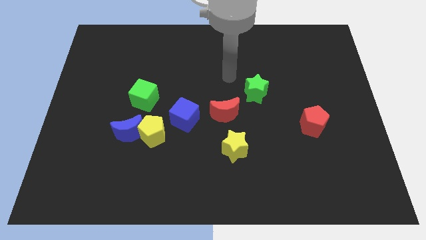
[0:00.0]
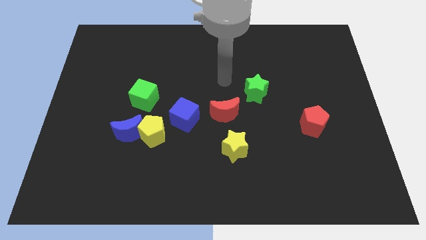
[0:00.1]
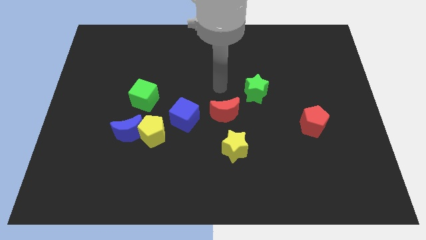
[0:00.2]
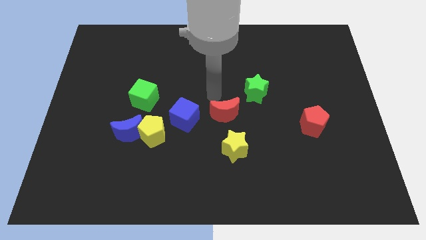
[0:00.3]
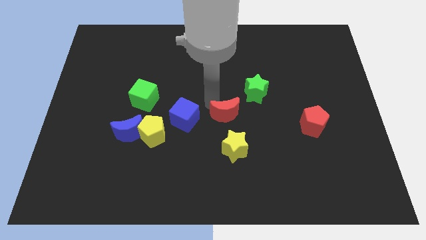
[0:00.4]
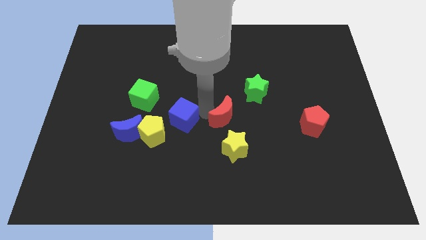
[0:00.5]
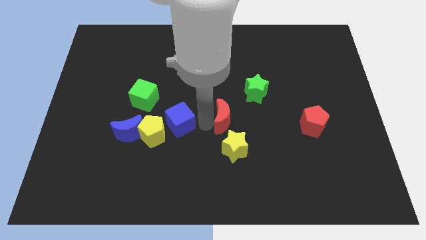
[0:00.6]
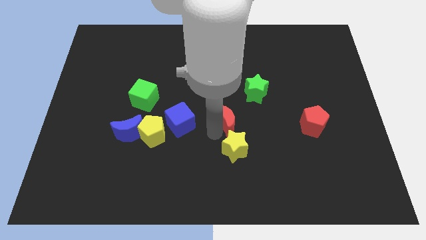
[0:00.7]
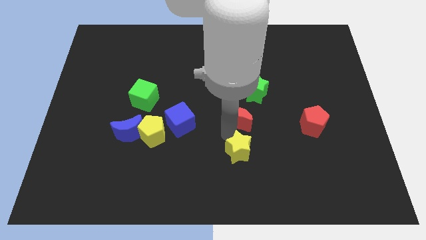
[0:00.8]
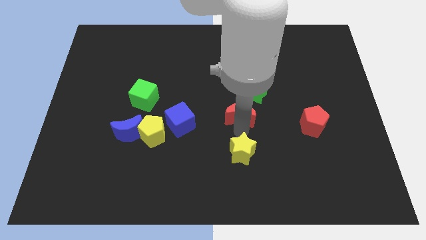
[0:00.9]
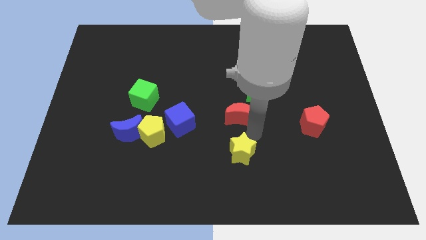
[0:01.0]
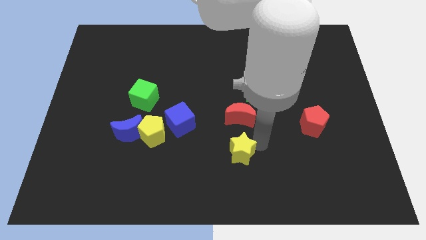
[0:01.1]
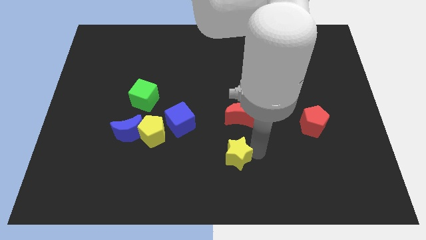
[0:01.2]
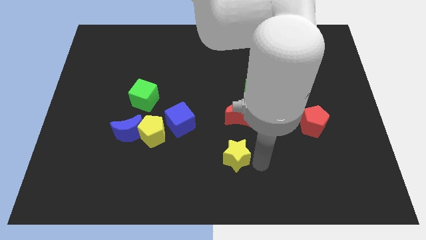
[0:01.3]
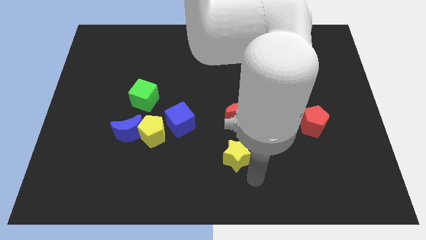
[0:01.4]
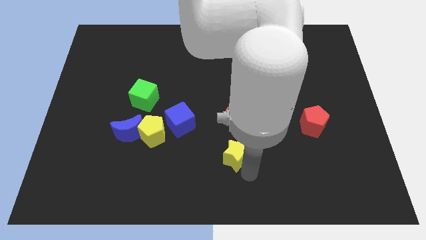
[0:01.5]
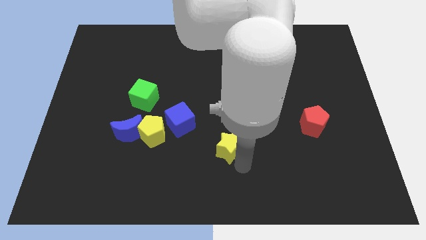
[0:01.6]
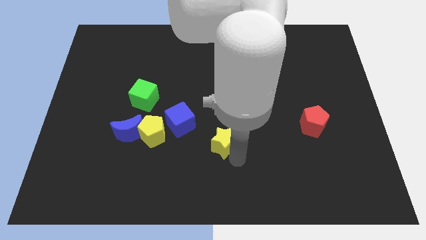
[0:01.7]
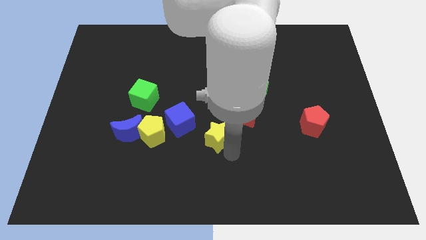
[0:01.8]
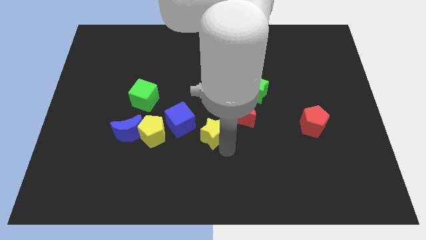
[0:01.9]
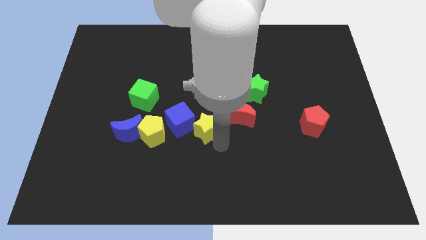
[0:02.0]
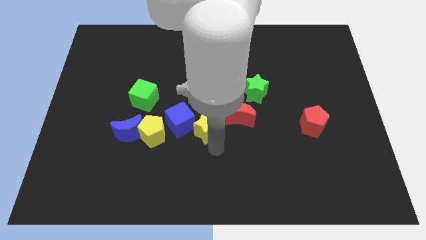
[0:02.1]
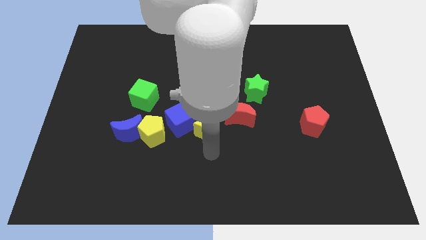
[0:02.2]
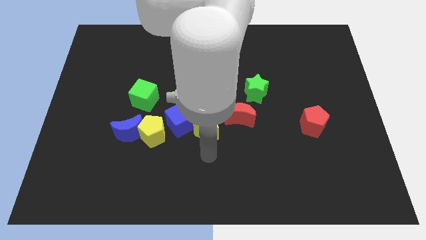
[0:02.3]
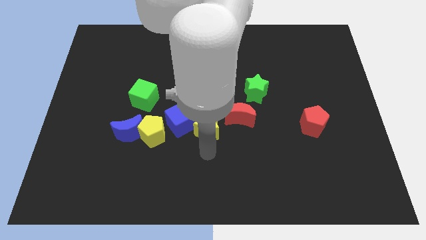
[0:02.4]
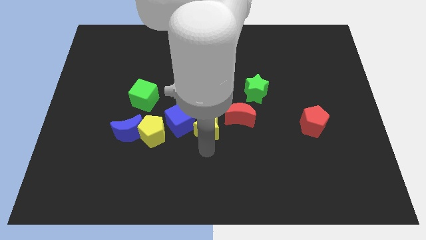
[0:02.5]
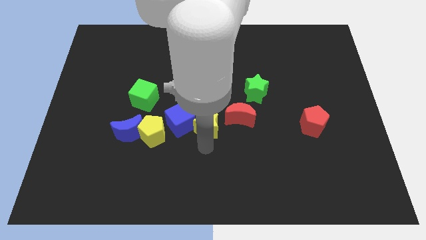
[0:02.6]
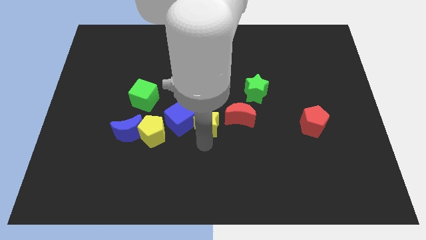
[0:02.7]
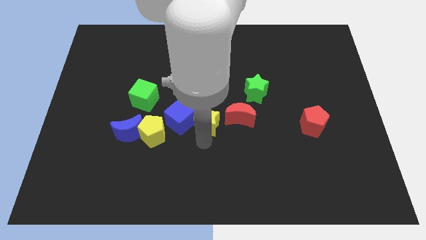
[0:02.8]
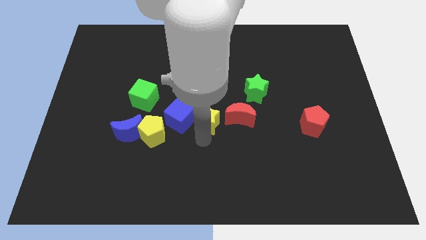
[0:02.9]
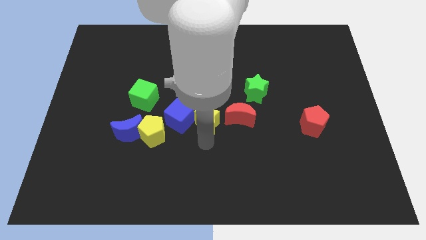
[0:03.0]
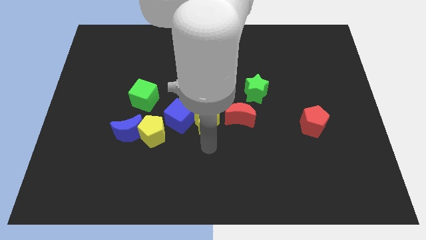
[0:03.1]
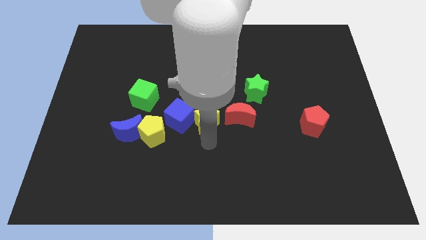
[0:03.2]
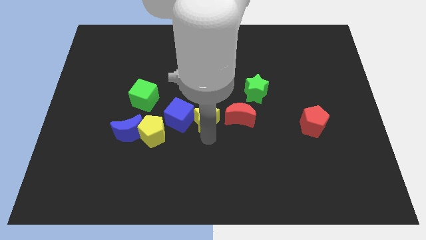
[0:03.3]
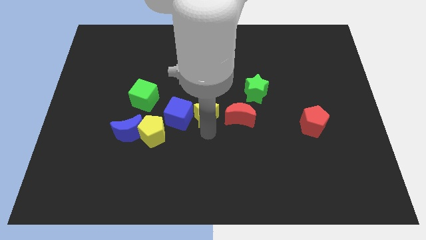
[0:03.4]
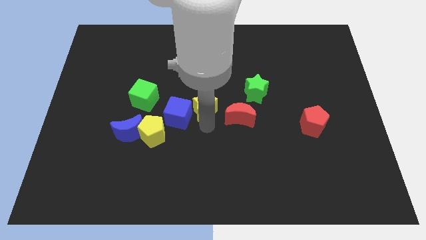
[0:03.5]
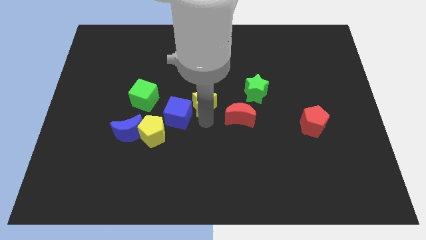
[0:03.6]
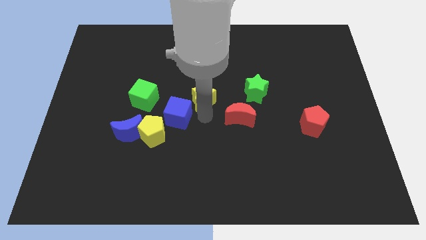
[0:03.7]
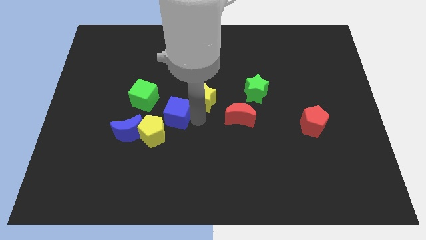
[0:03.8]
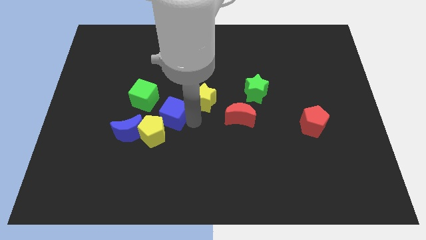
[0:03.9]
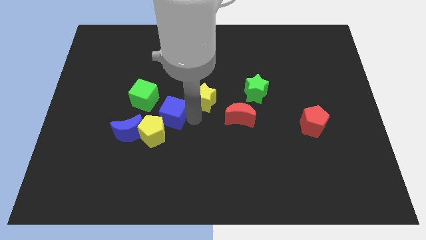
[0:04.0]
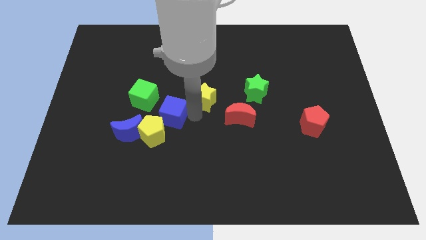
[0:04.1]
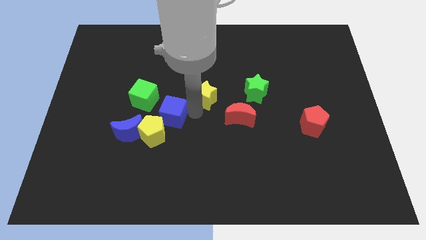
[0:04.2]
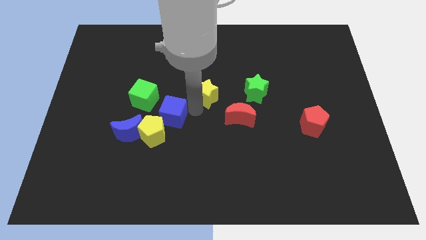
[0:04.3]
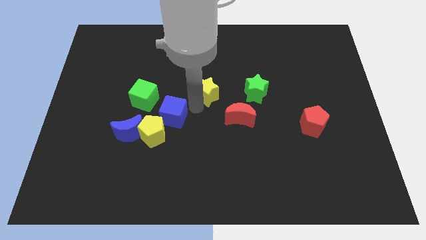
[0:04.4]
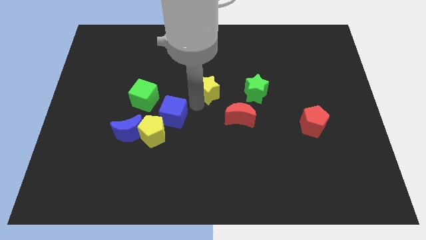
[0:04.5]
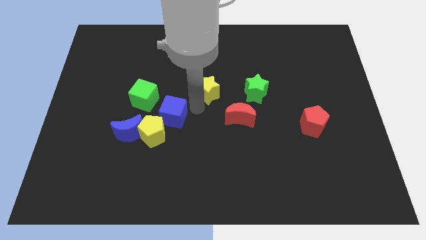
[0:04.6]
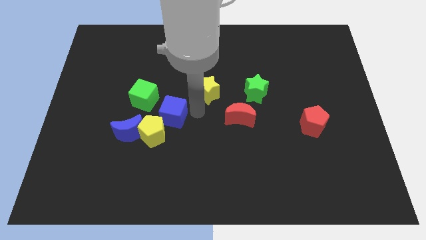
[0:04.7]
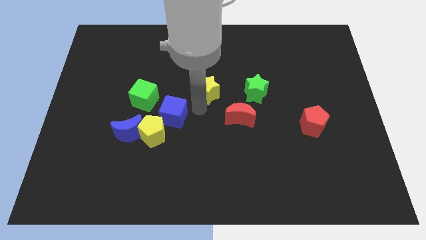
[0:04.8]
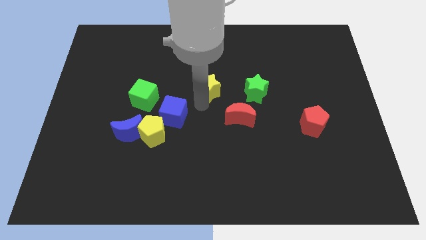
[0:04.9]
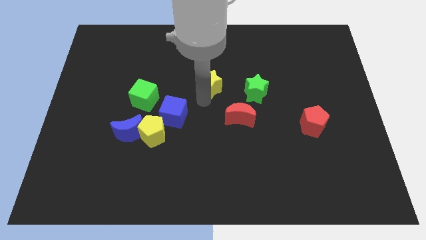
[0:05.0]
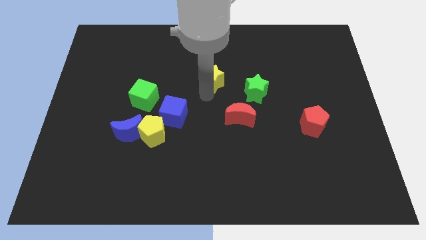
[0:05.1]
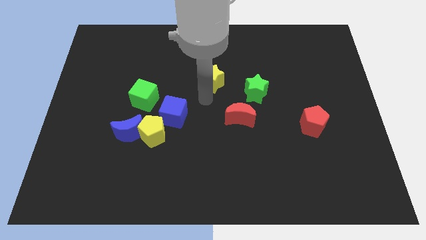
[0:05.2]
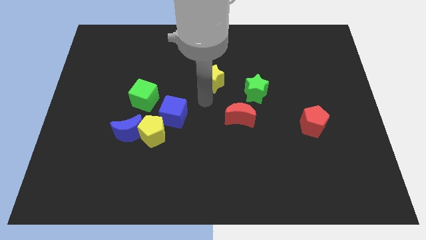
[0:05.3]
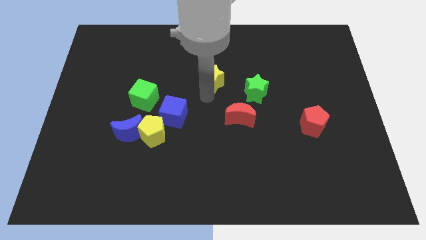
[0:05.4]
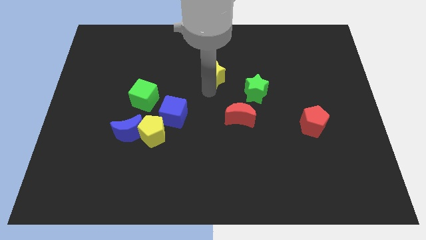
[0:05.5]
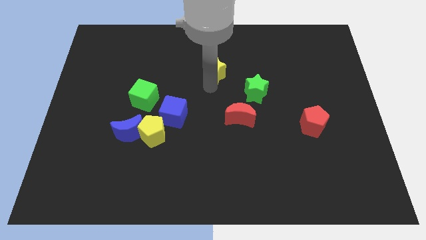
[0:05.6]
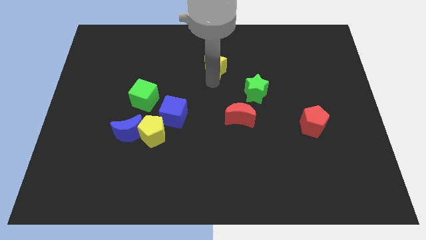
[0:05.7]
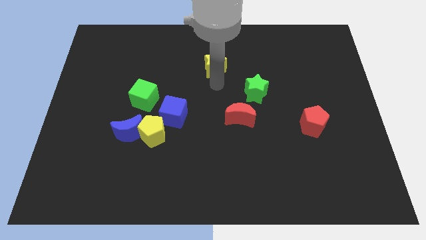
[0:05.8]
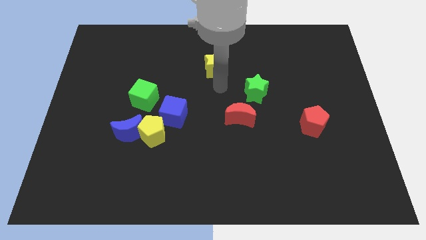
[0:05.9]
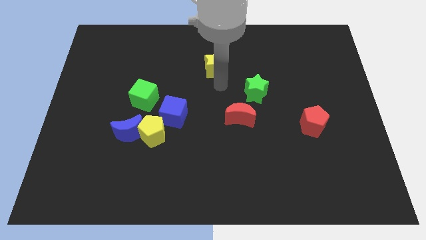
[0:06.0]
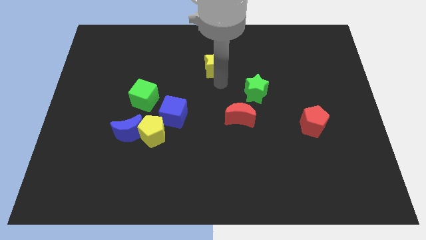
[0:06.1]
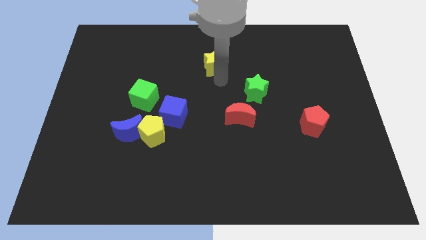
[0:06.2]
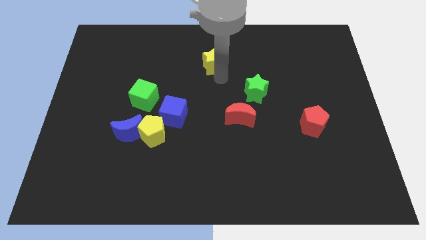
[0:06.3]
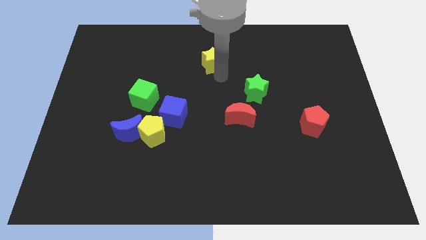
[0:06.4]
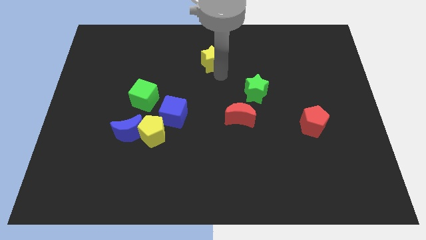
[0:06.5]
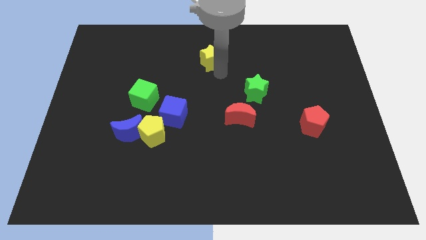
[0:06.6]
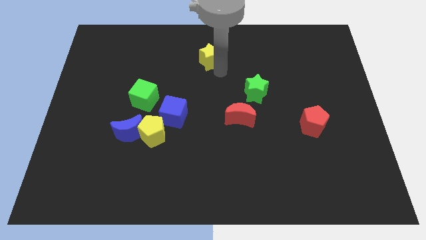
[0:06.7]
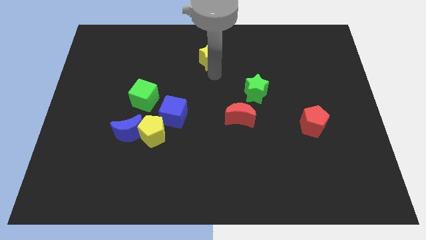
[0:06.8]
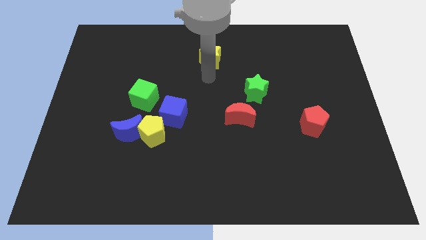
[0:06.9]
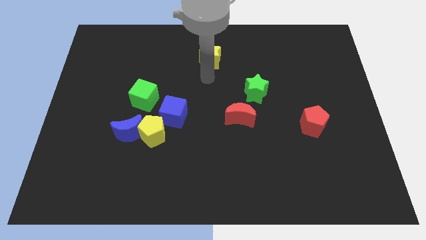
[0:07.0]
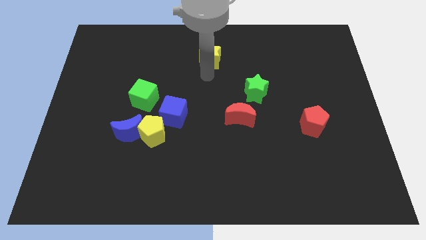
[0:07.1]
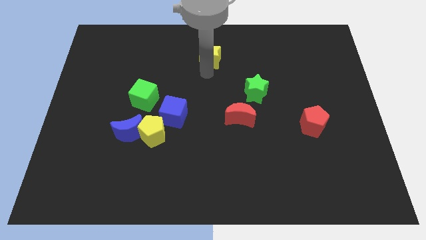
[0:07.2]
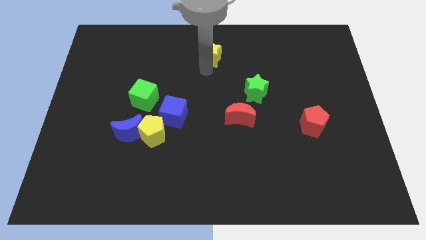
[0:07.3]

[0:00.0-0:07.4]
move the yellow star to the towards your base

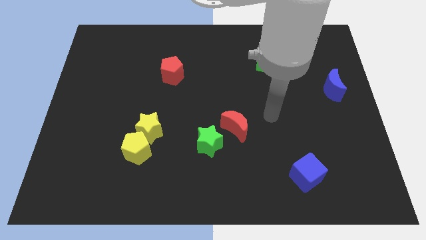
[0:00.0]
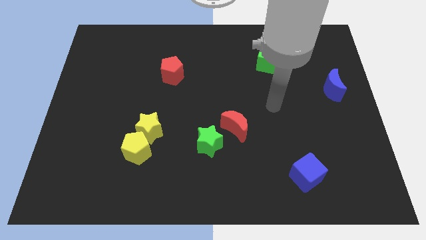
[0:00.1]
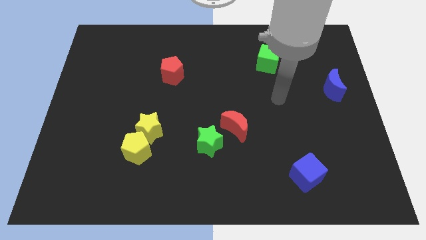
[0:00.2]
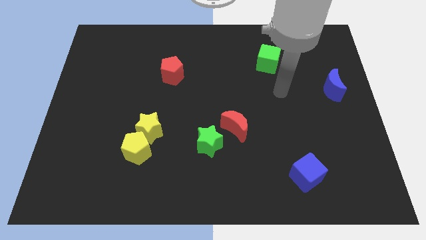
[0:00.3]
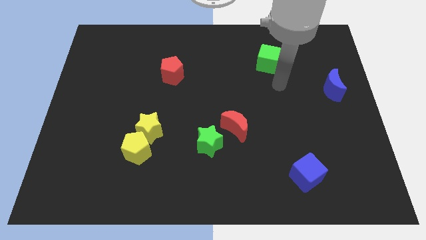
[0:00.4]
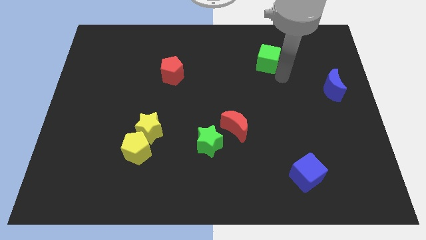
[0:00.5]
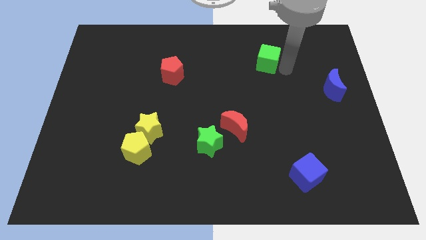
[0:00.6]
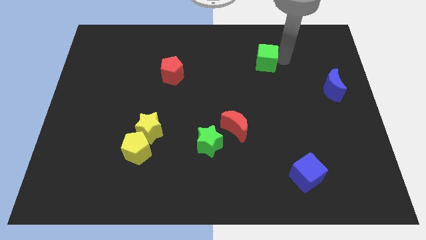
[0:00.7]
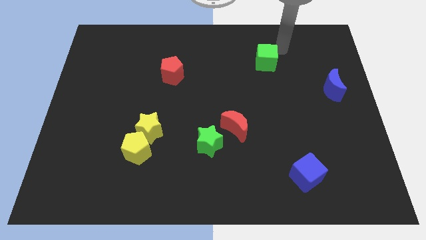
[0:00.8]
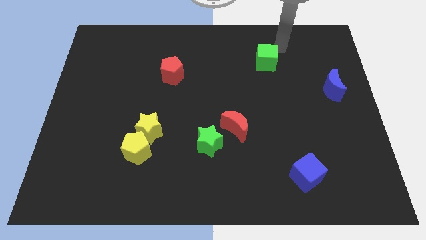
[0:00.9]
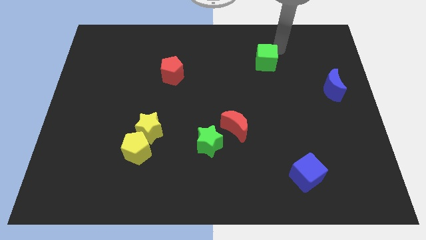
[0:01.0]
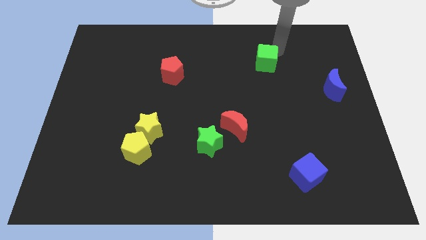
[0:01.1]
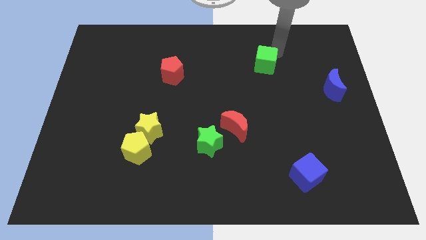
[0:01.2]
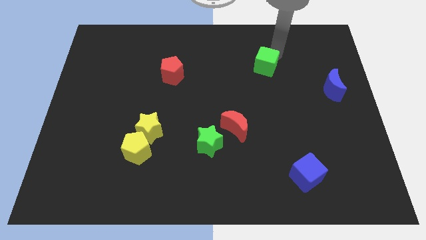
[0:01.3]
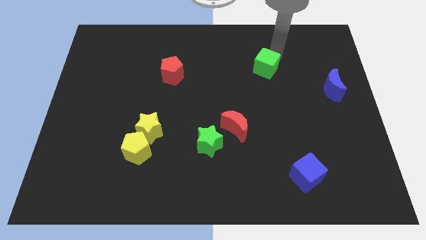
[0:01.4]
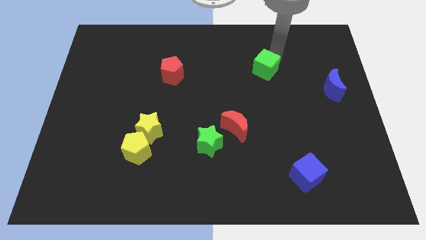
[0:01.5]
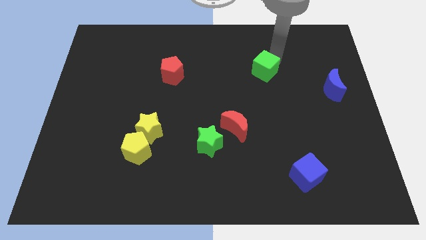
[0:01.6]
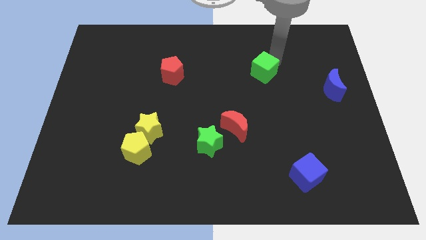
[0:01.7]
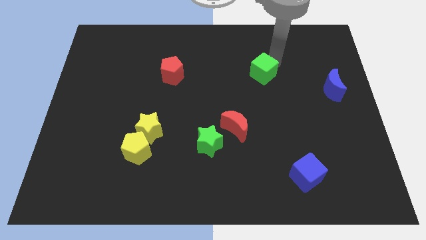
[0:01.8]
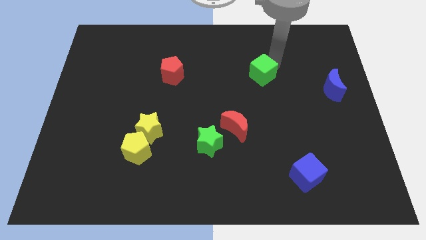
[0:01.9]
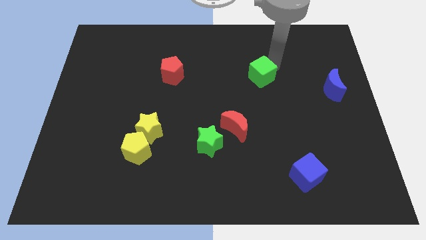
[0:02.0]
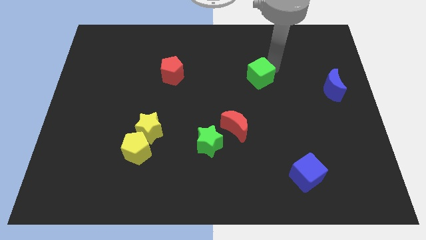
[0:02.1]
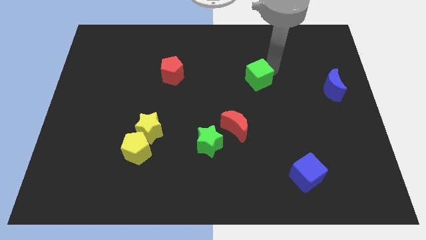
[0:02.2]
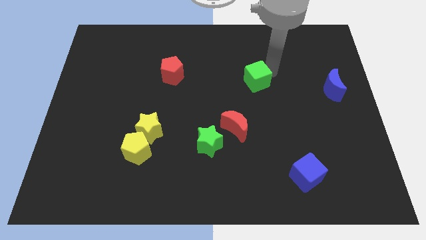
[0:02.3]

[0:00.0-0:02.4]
push the green cube to the center
